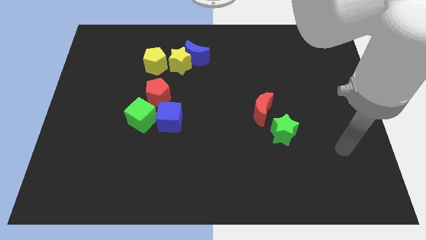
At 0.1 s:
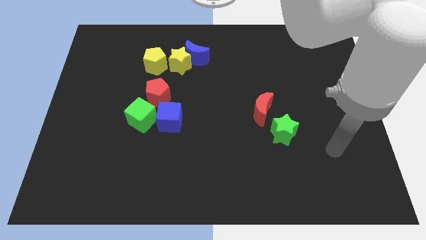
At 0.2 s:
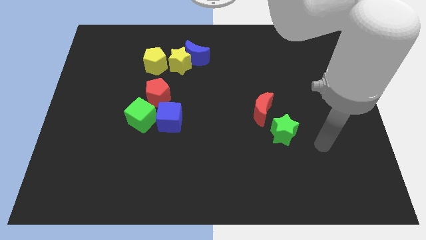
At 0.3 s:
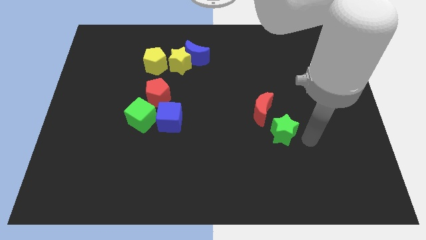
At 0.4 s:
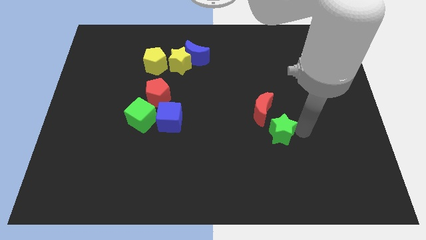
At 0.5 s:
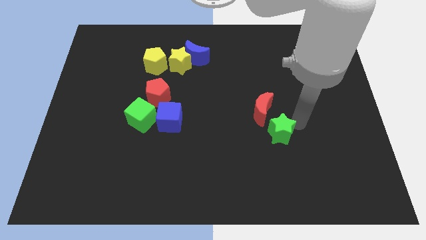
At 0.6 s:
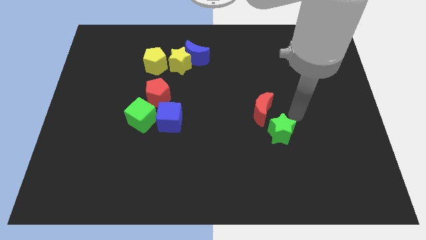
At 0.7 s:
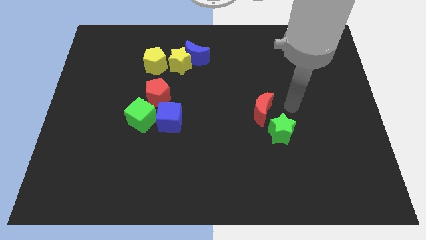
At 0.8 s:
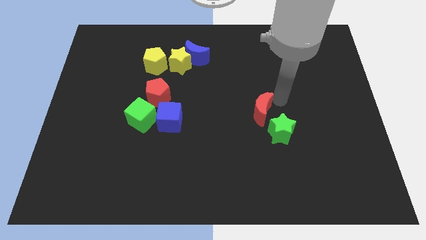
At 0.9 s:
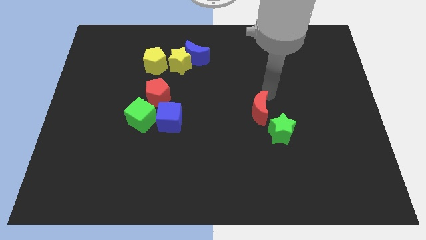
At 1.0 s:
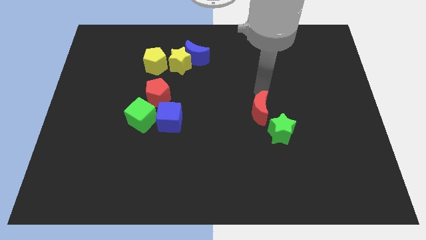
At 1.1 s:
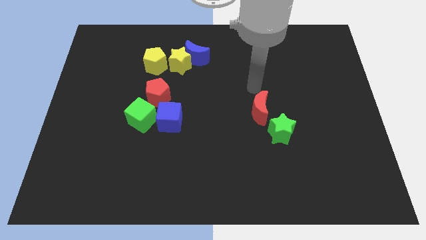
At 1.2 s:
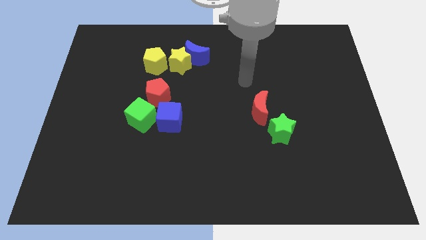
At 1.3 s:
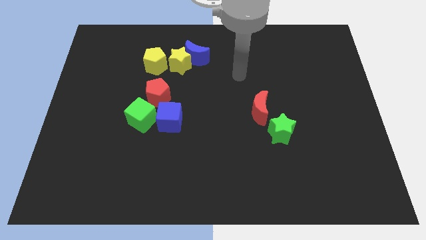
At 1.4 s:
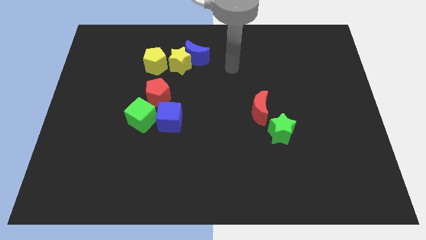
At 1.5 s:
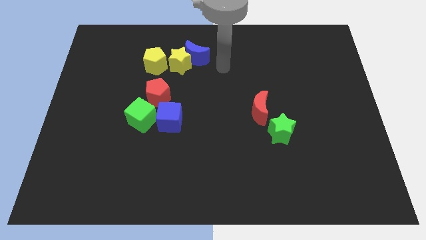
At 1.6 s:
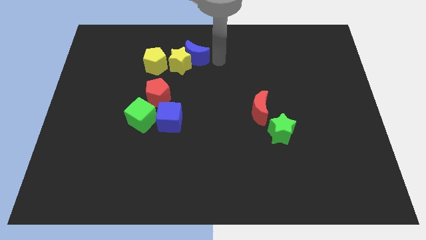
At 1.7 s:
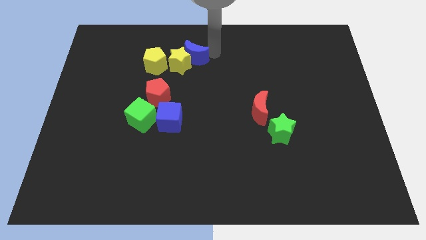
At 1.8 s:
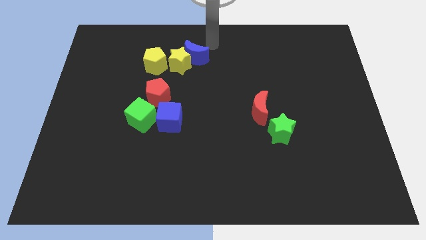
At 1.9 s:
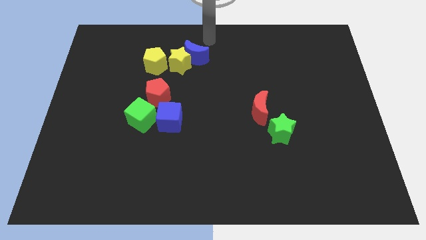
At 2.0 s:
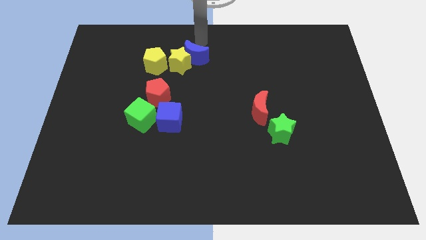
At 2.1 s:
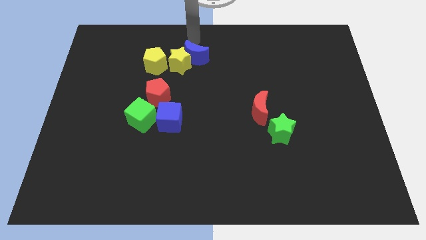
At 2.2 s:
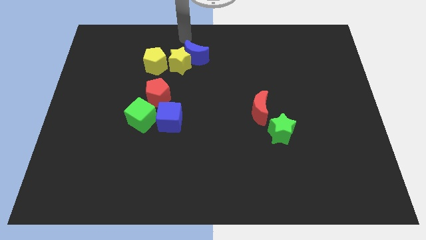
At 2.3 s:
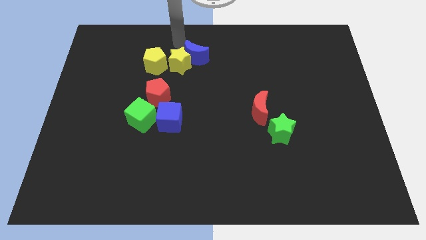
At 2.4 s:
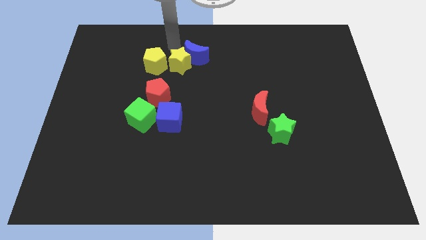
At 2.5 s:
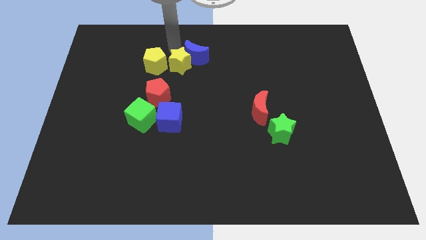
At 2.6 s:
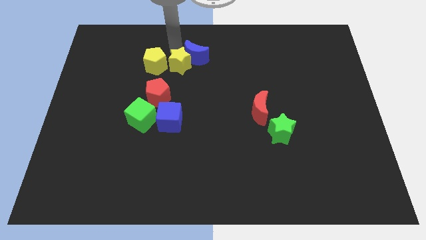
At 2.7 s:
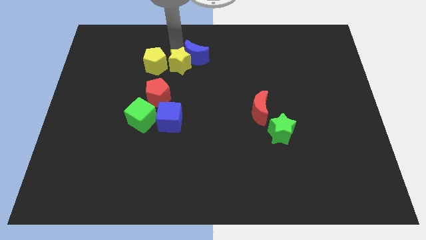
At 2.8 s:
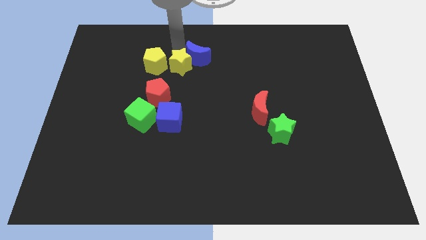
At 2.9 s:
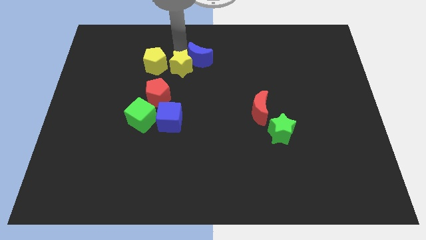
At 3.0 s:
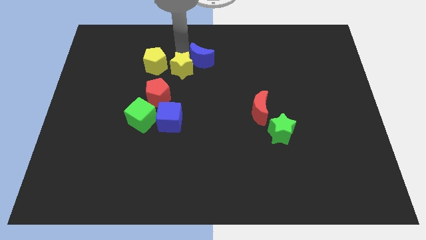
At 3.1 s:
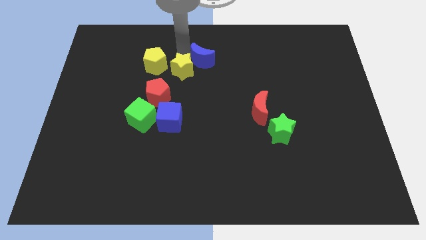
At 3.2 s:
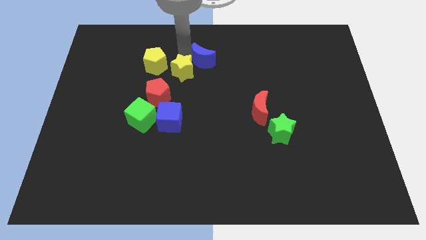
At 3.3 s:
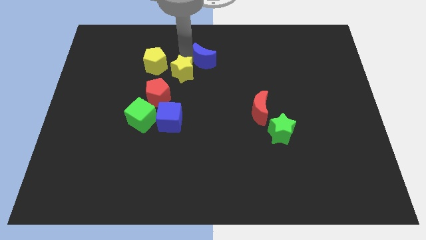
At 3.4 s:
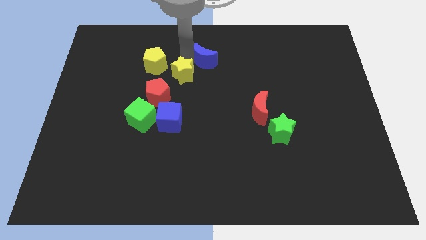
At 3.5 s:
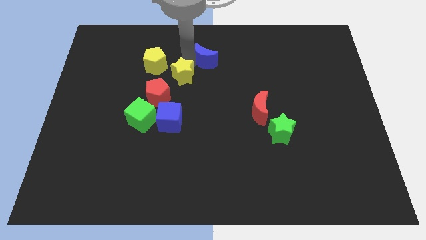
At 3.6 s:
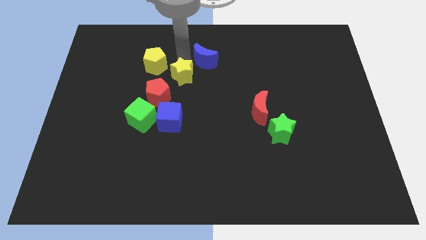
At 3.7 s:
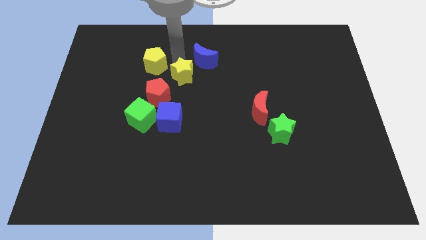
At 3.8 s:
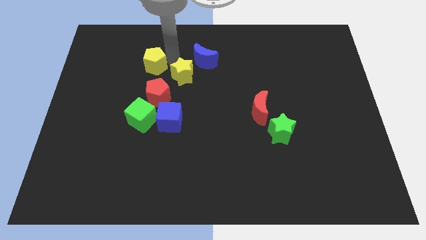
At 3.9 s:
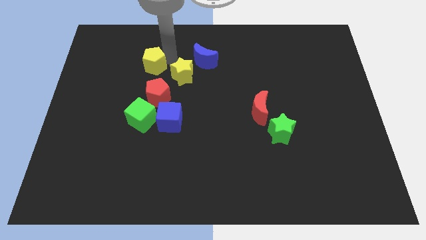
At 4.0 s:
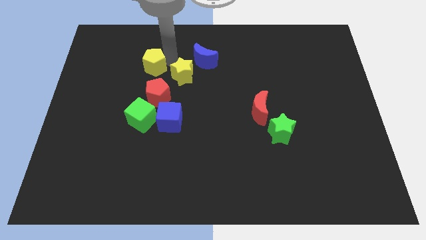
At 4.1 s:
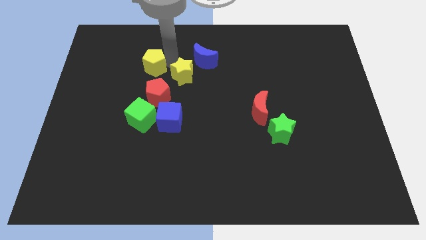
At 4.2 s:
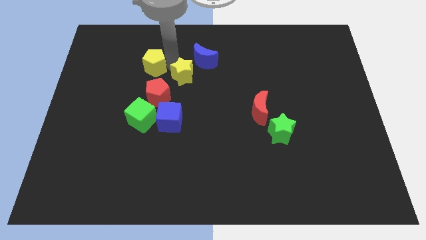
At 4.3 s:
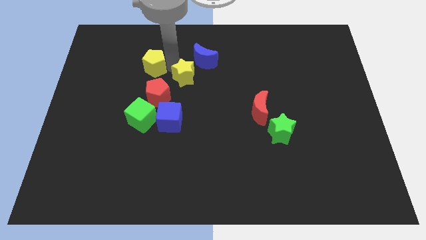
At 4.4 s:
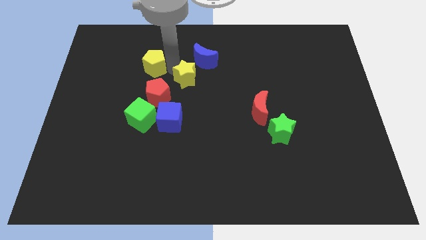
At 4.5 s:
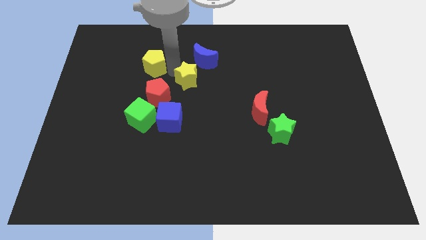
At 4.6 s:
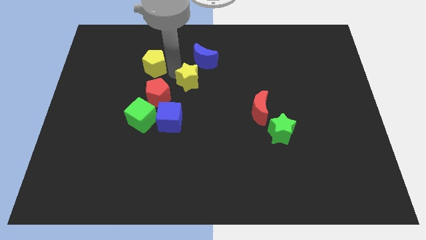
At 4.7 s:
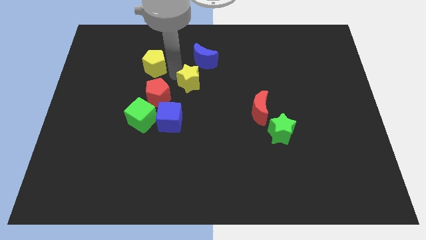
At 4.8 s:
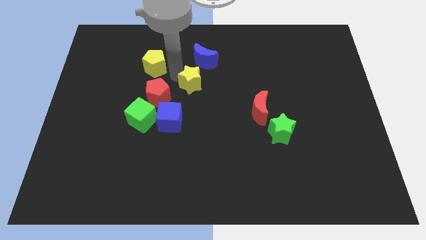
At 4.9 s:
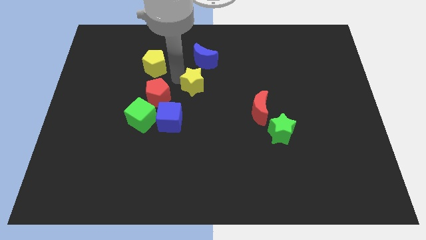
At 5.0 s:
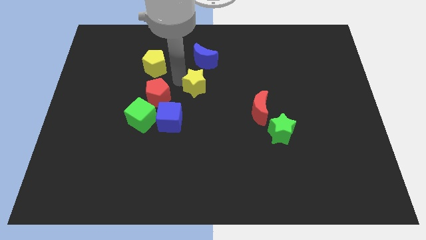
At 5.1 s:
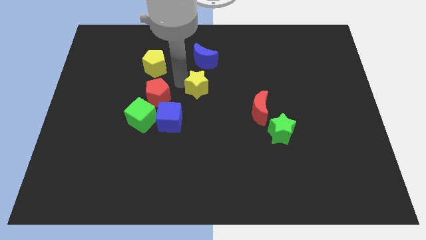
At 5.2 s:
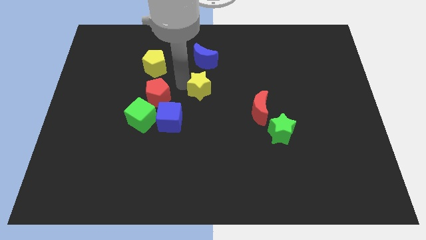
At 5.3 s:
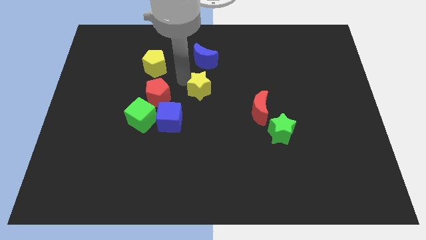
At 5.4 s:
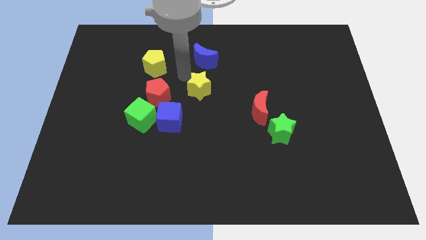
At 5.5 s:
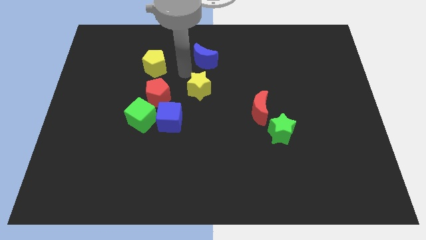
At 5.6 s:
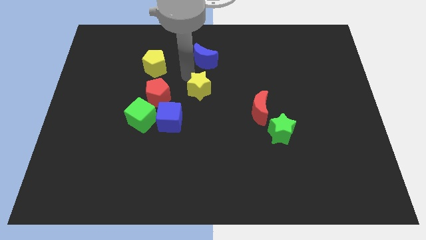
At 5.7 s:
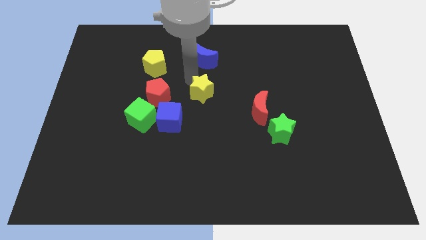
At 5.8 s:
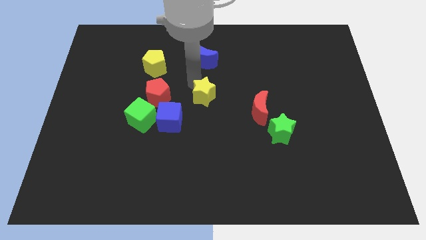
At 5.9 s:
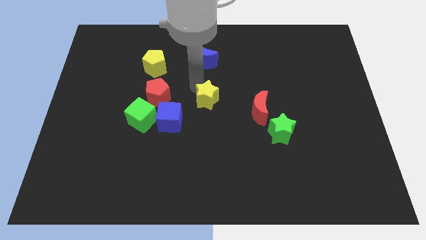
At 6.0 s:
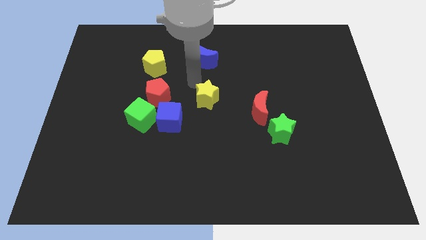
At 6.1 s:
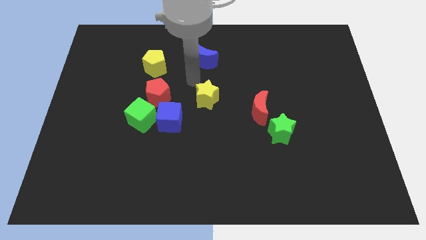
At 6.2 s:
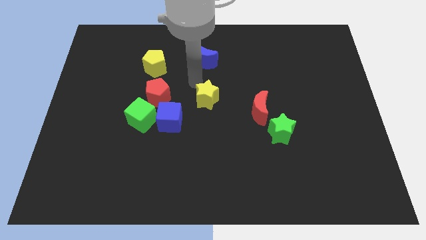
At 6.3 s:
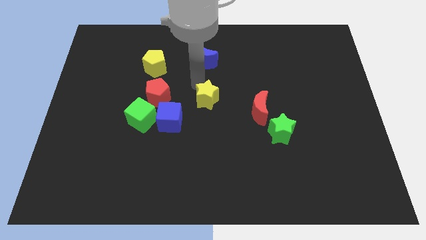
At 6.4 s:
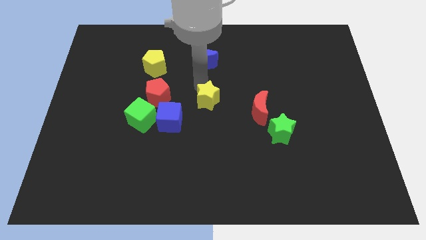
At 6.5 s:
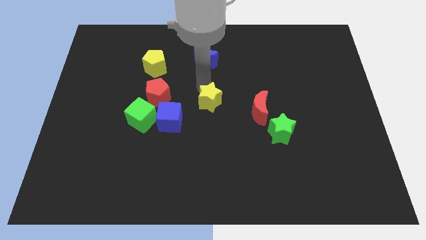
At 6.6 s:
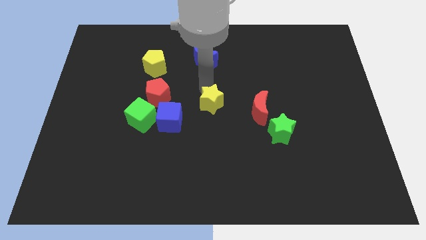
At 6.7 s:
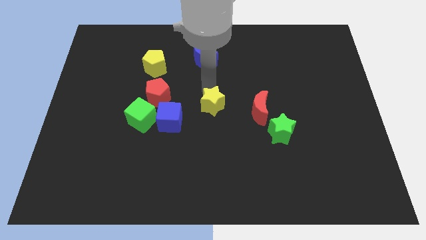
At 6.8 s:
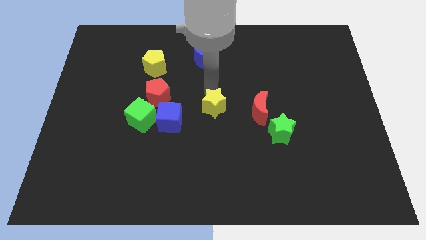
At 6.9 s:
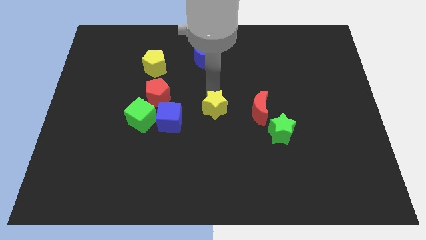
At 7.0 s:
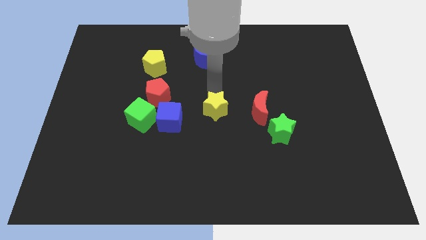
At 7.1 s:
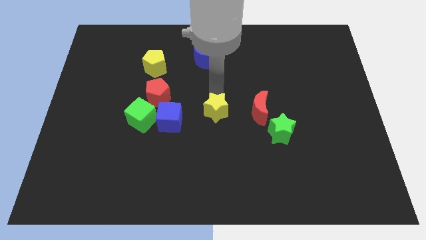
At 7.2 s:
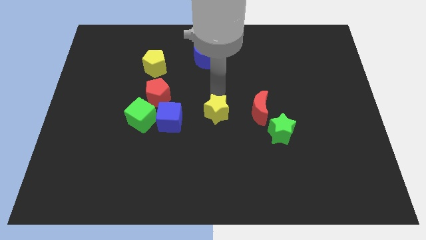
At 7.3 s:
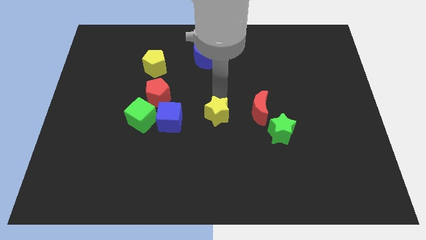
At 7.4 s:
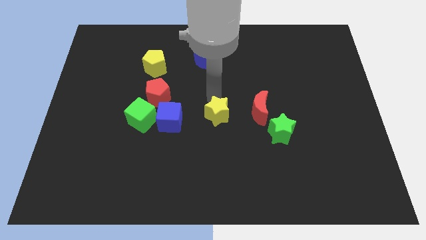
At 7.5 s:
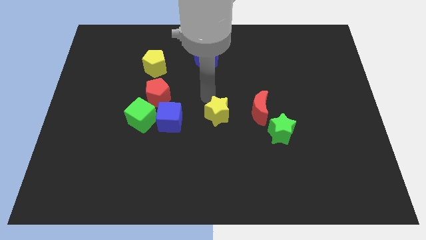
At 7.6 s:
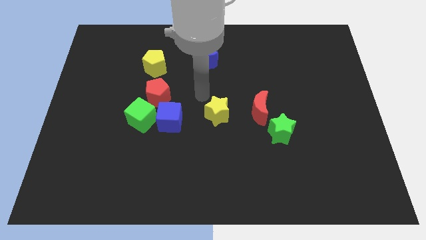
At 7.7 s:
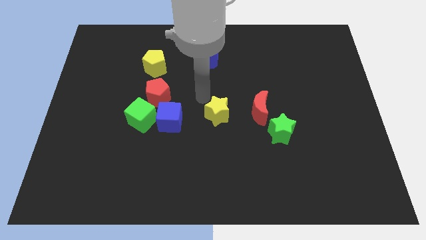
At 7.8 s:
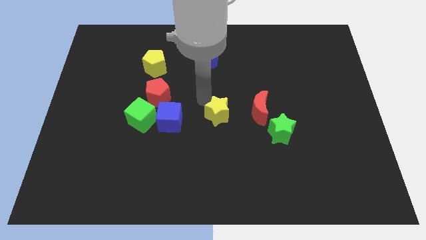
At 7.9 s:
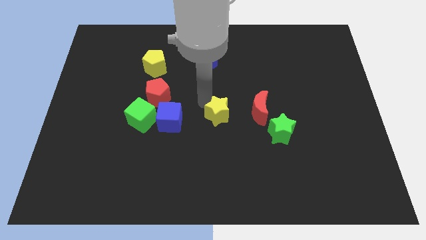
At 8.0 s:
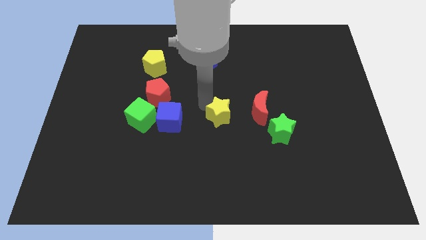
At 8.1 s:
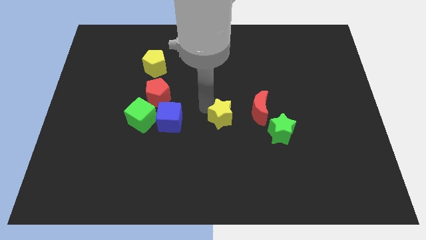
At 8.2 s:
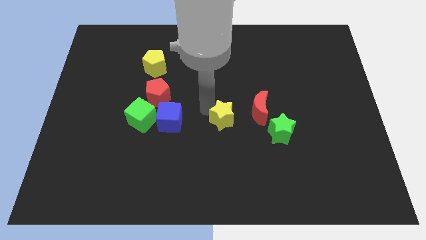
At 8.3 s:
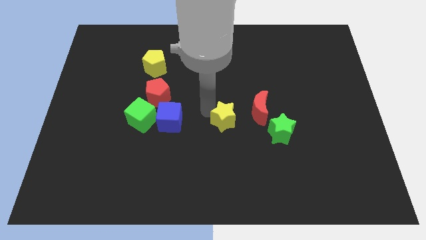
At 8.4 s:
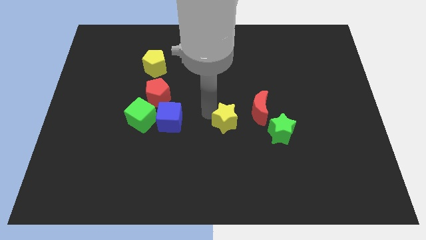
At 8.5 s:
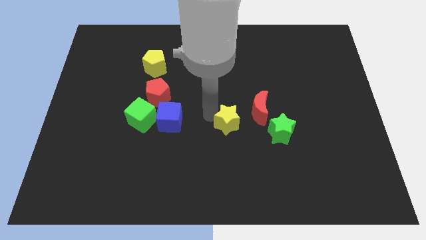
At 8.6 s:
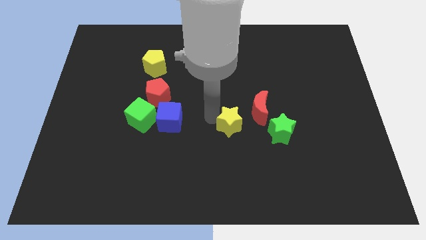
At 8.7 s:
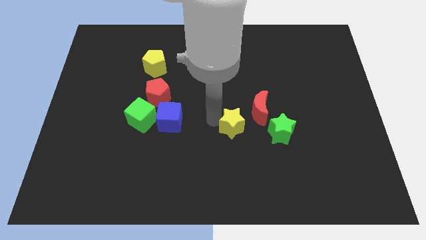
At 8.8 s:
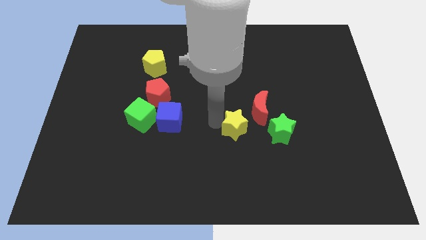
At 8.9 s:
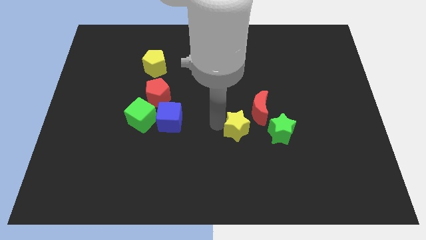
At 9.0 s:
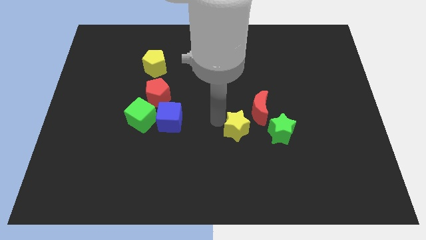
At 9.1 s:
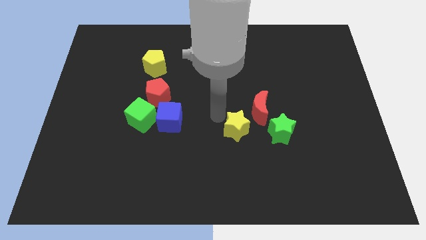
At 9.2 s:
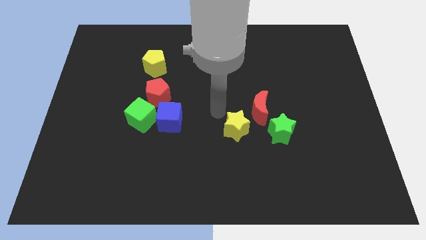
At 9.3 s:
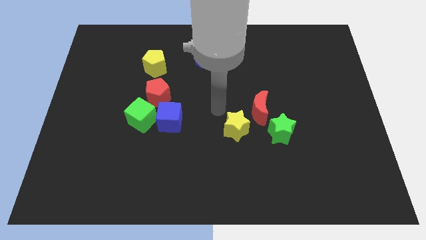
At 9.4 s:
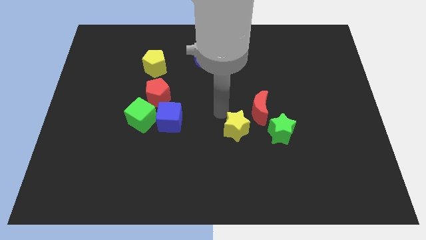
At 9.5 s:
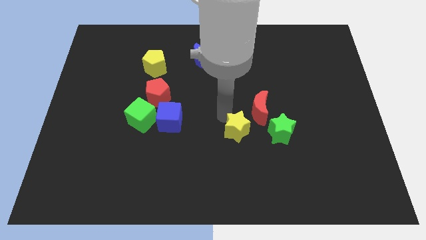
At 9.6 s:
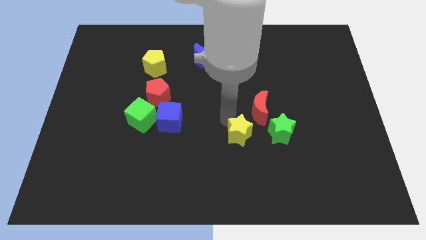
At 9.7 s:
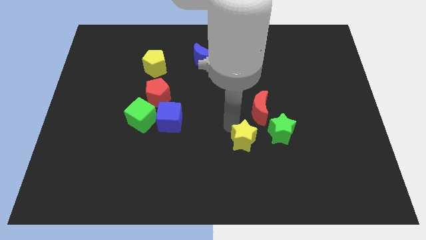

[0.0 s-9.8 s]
push the yellow star to the bottom side of the red moon
